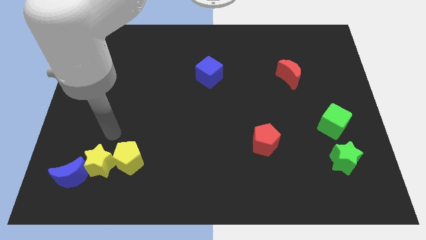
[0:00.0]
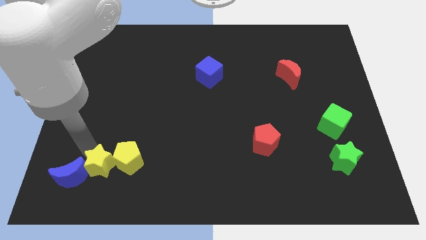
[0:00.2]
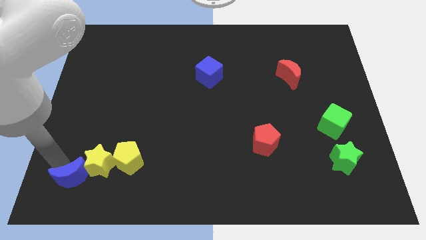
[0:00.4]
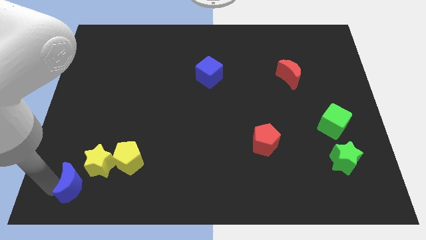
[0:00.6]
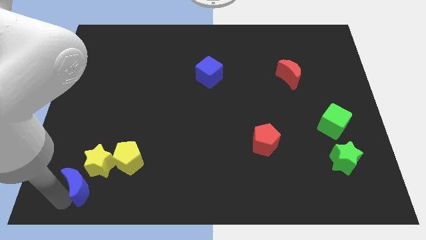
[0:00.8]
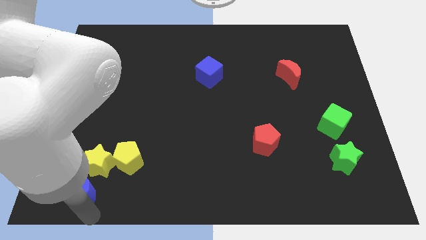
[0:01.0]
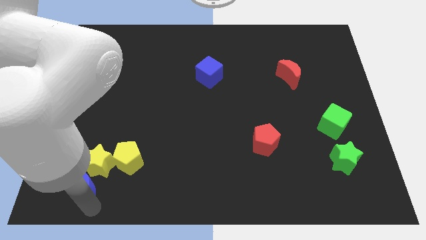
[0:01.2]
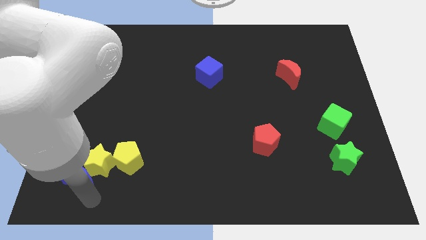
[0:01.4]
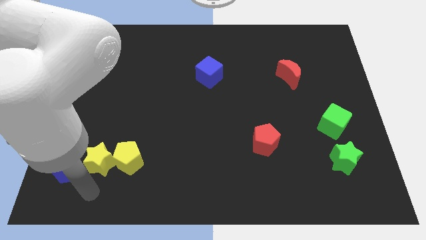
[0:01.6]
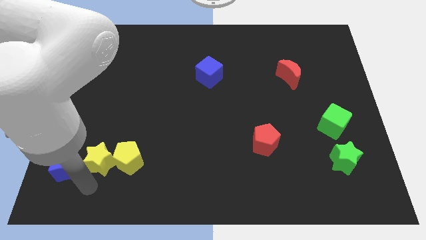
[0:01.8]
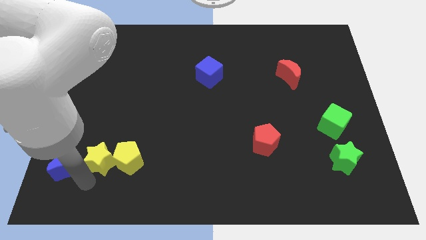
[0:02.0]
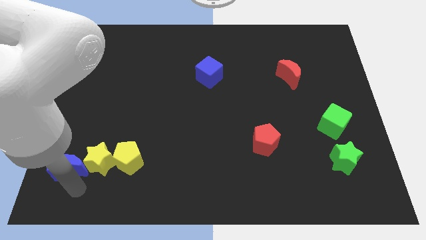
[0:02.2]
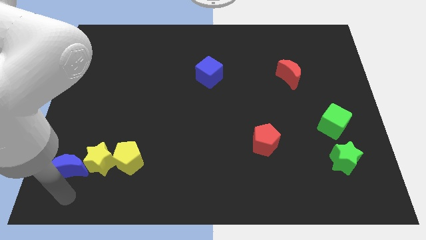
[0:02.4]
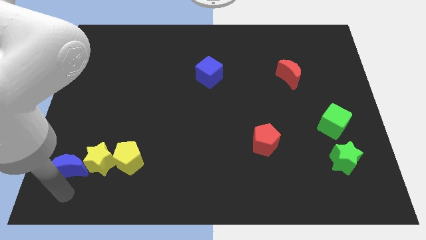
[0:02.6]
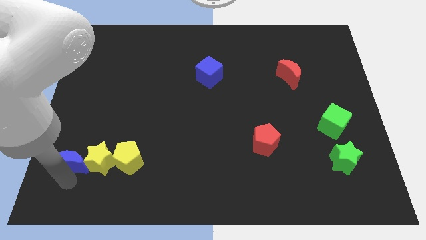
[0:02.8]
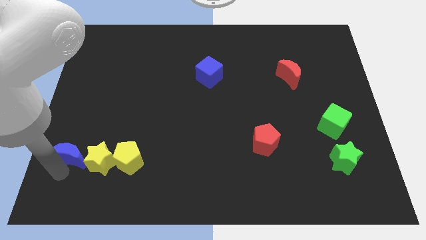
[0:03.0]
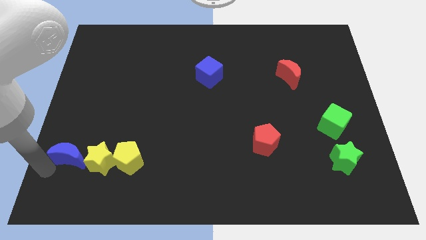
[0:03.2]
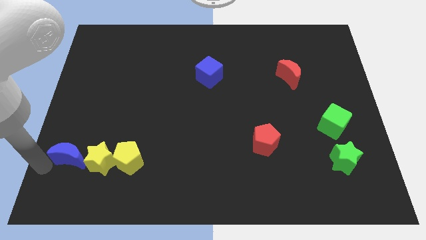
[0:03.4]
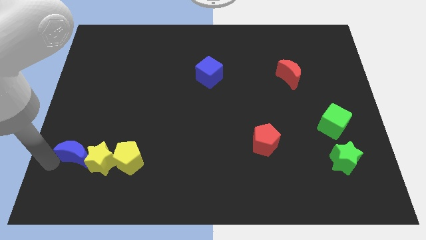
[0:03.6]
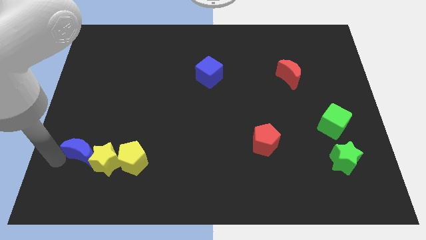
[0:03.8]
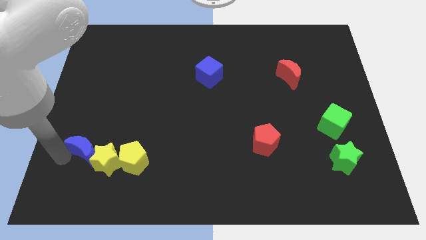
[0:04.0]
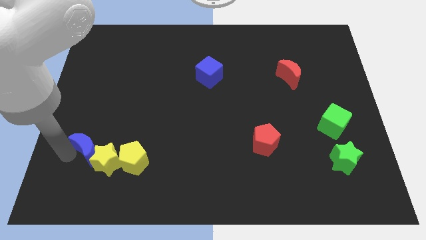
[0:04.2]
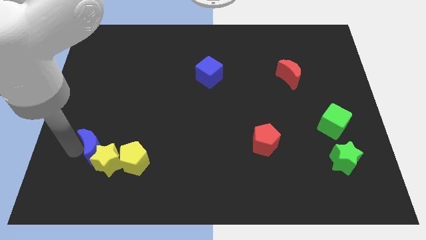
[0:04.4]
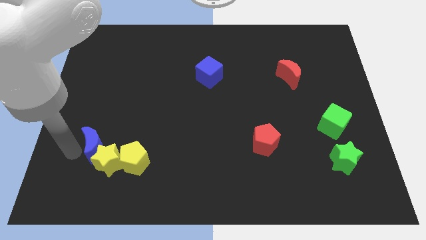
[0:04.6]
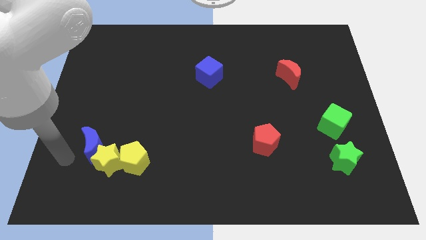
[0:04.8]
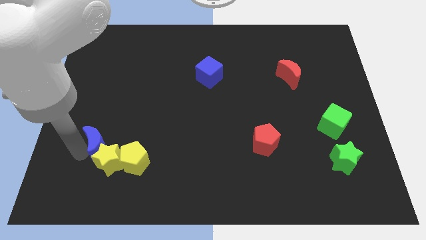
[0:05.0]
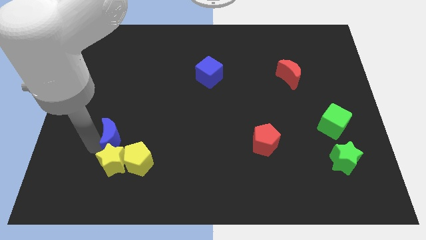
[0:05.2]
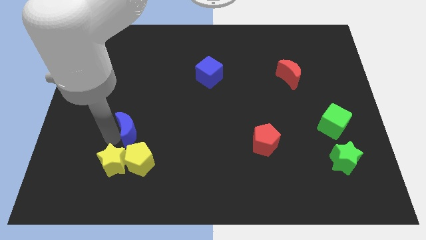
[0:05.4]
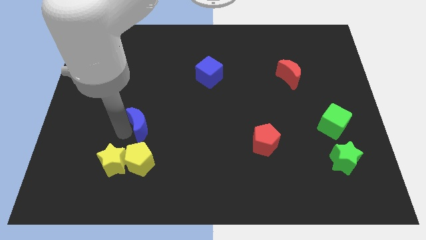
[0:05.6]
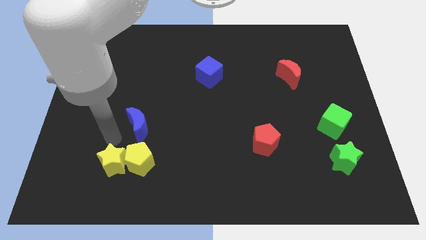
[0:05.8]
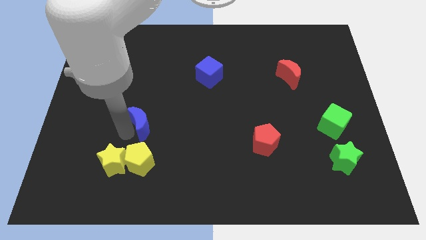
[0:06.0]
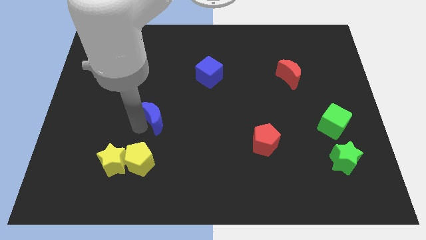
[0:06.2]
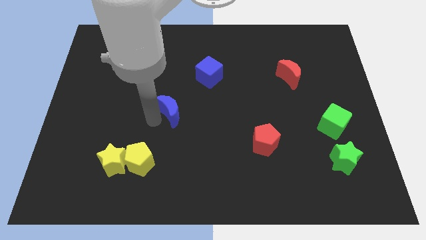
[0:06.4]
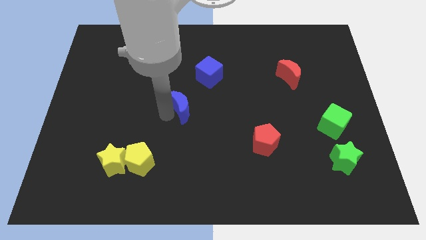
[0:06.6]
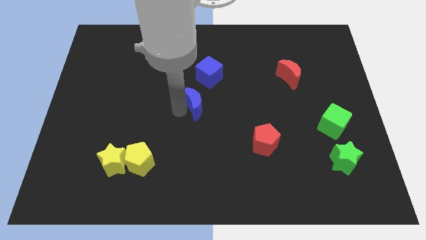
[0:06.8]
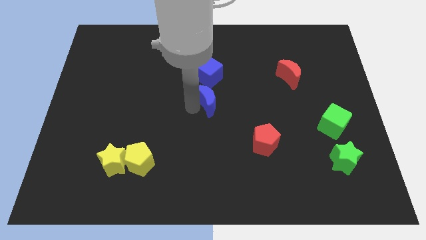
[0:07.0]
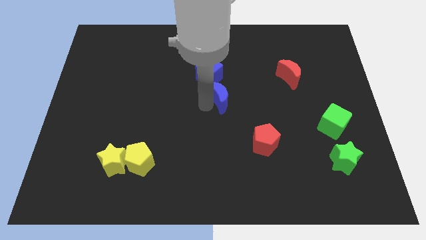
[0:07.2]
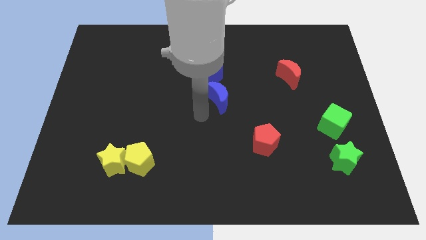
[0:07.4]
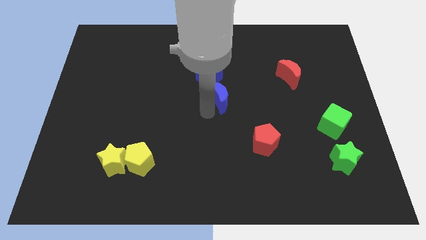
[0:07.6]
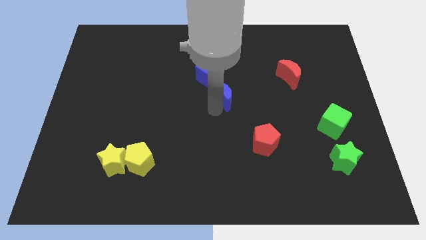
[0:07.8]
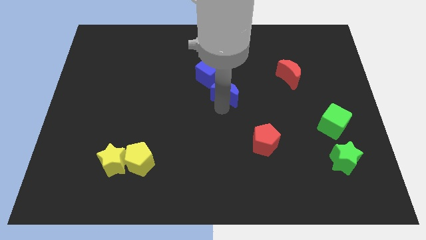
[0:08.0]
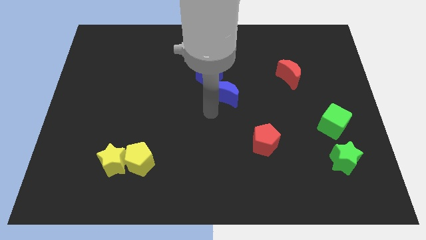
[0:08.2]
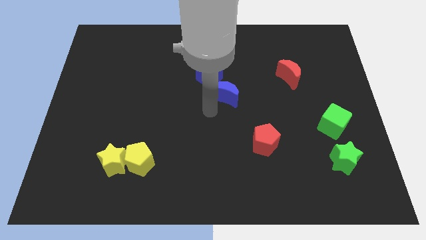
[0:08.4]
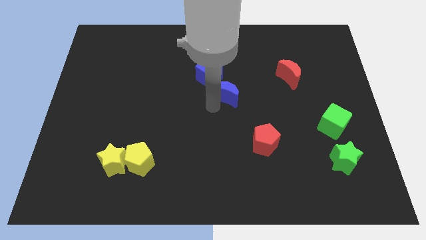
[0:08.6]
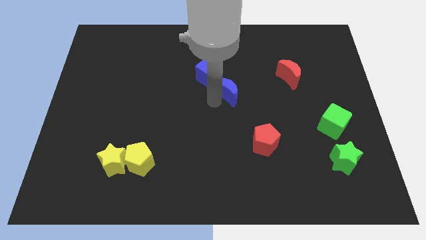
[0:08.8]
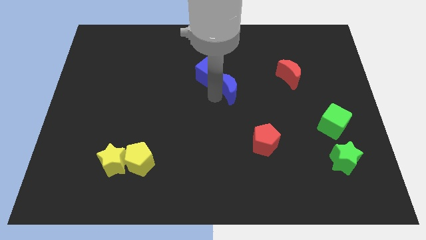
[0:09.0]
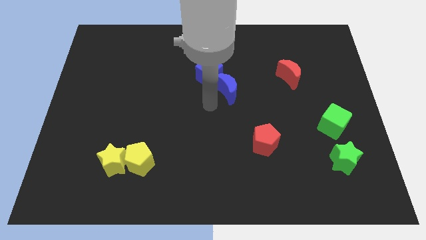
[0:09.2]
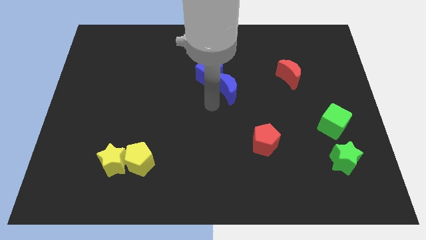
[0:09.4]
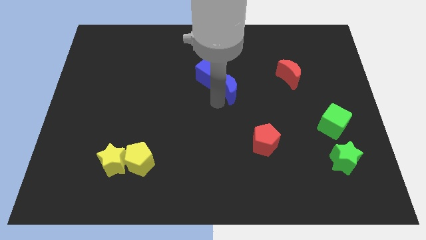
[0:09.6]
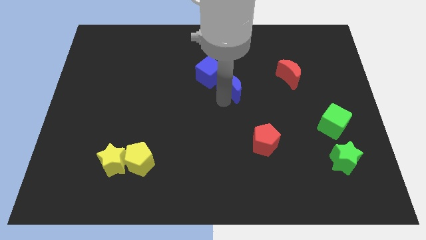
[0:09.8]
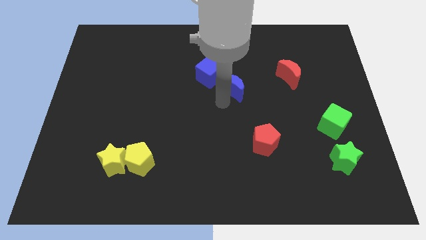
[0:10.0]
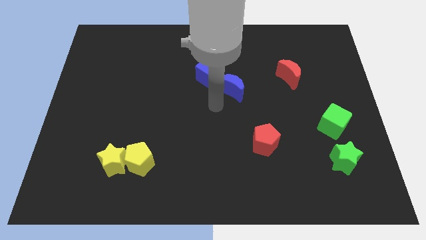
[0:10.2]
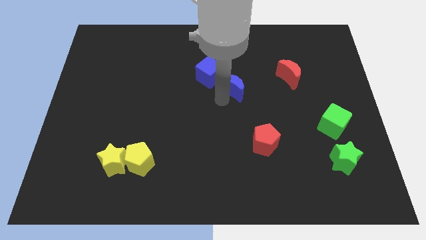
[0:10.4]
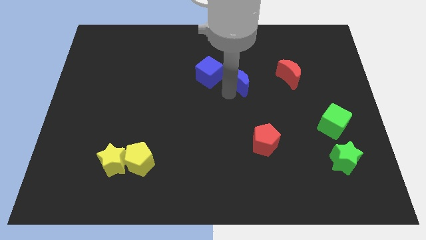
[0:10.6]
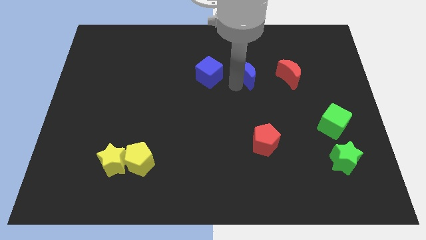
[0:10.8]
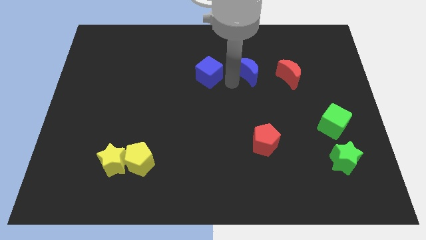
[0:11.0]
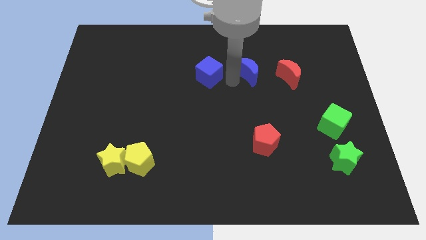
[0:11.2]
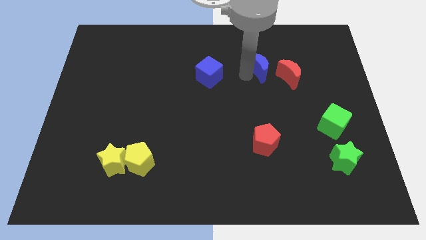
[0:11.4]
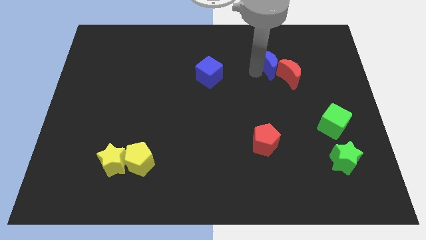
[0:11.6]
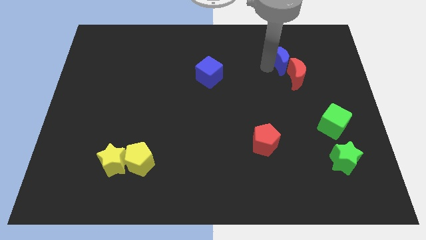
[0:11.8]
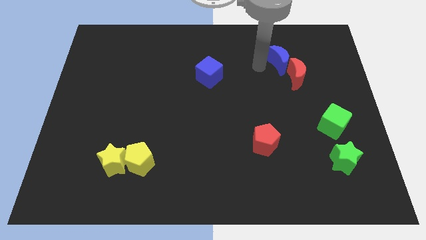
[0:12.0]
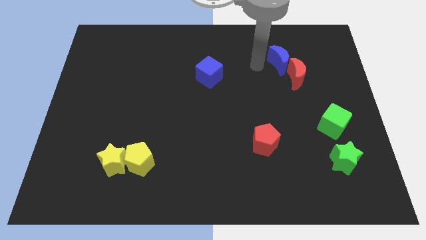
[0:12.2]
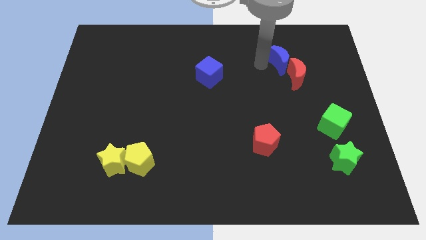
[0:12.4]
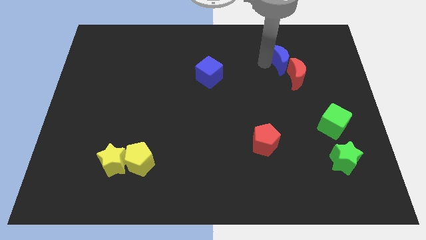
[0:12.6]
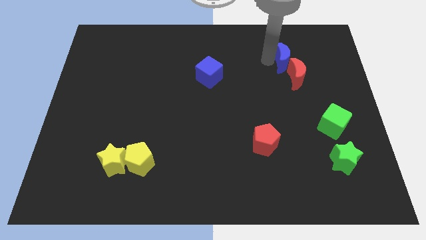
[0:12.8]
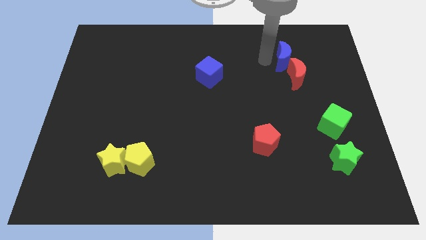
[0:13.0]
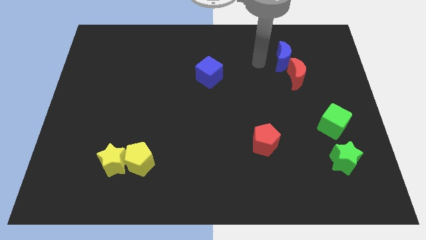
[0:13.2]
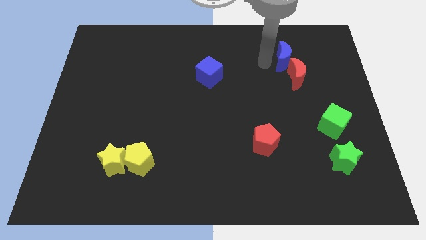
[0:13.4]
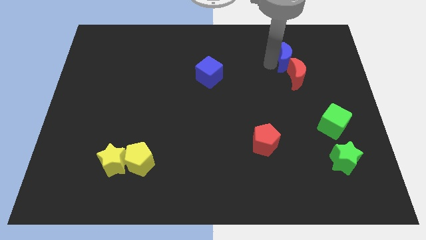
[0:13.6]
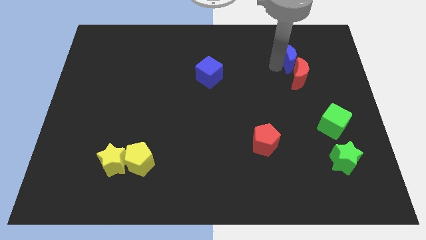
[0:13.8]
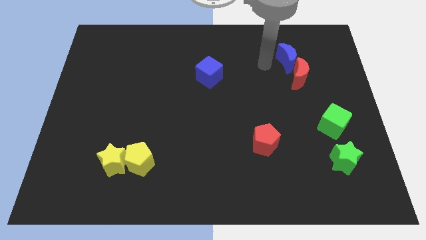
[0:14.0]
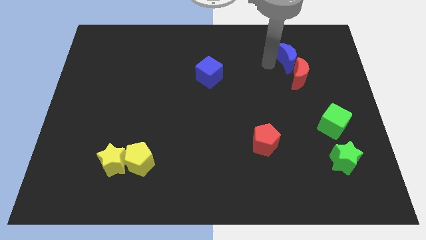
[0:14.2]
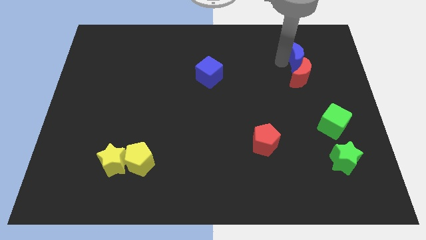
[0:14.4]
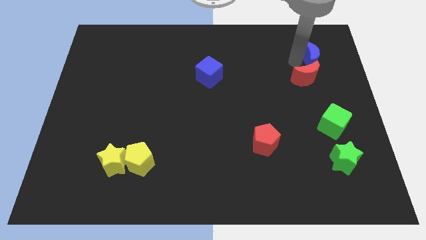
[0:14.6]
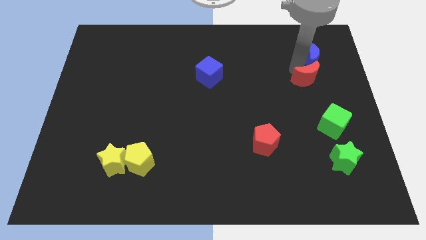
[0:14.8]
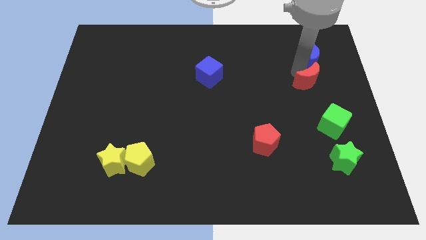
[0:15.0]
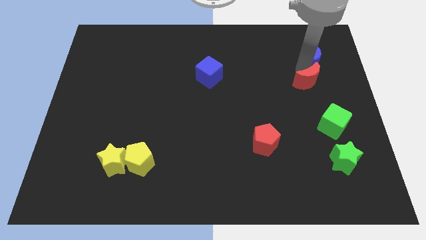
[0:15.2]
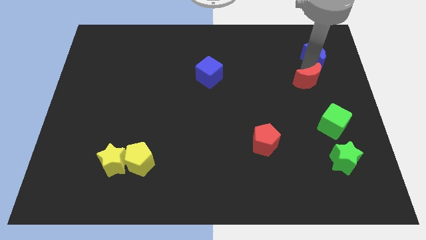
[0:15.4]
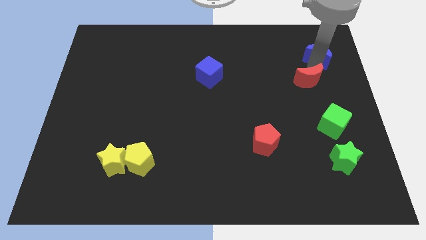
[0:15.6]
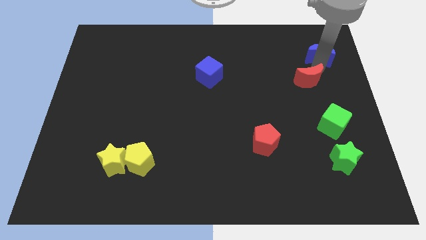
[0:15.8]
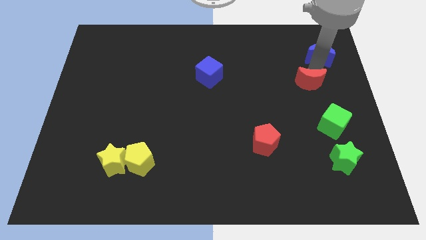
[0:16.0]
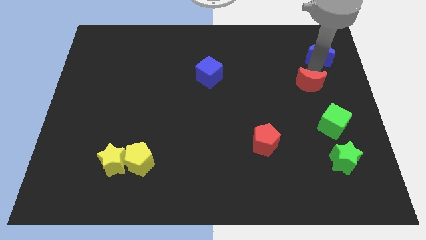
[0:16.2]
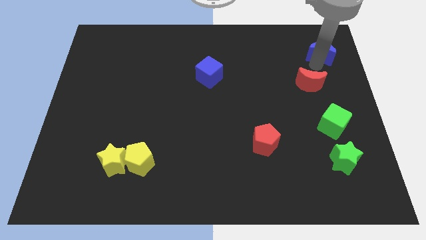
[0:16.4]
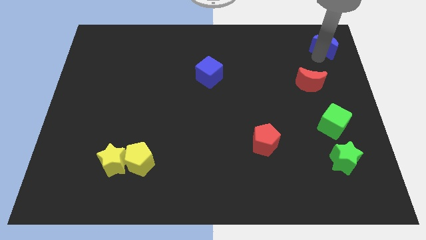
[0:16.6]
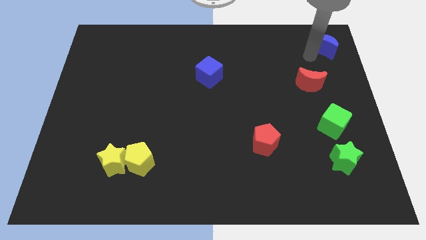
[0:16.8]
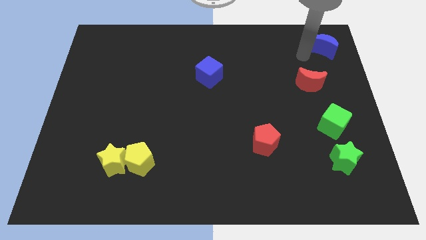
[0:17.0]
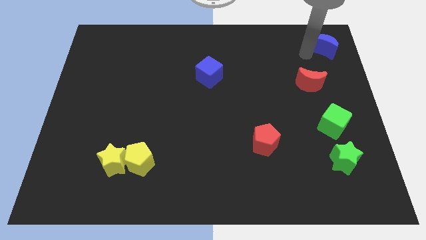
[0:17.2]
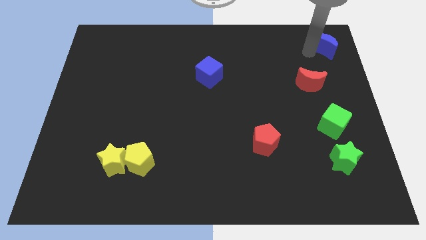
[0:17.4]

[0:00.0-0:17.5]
put the blue moon to the top right
